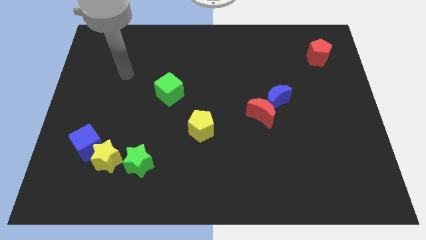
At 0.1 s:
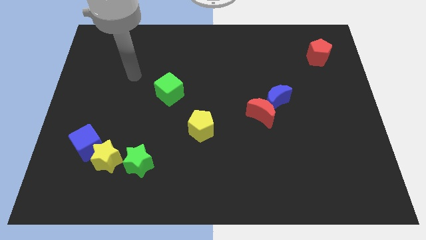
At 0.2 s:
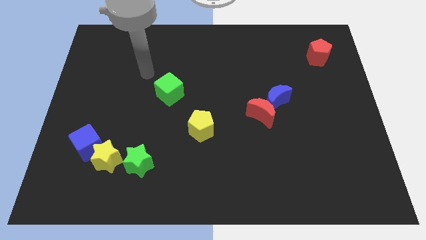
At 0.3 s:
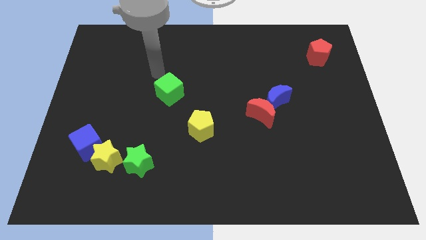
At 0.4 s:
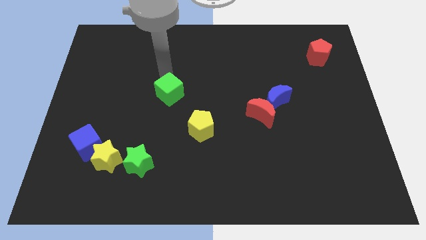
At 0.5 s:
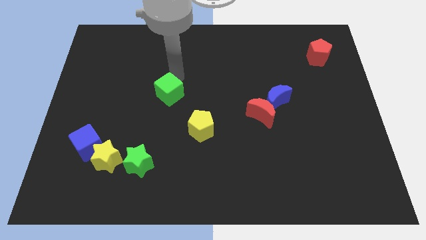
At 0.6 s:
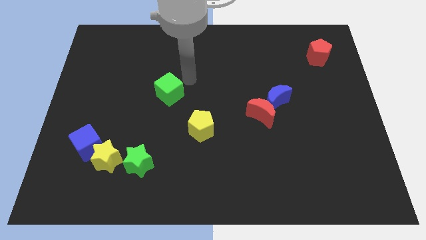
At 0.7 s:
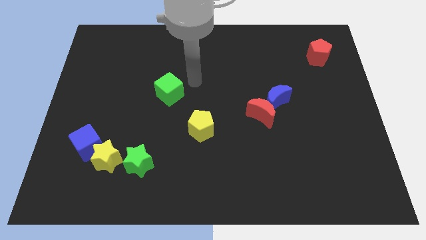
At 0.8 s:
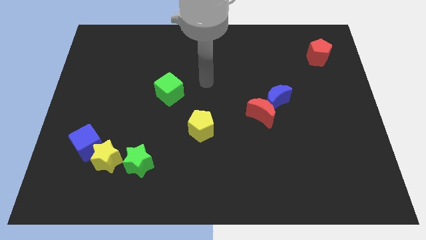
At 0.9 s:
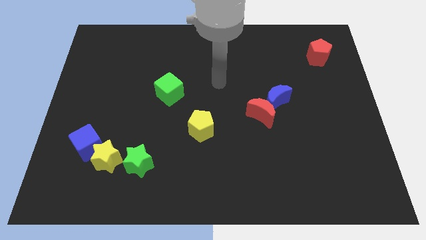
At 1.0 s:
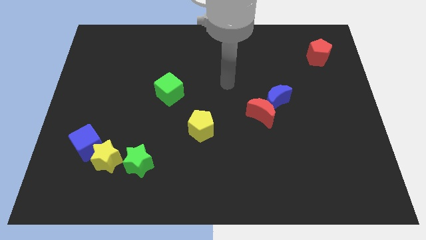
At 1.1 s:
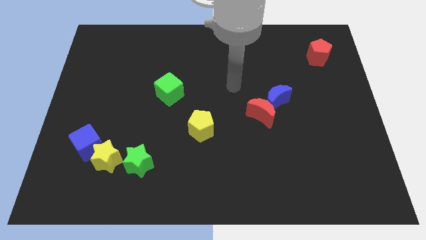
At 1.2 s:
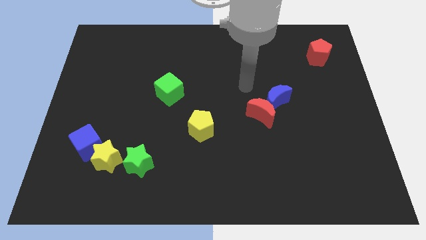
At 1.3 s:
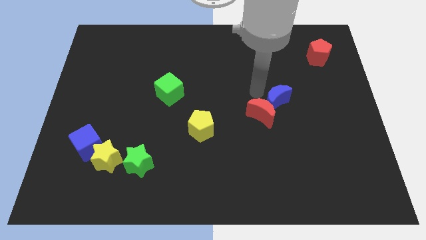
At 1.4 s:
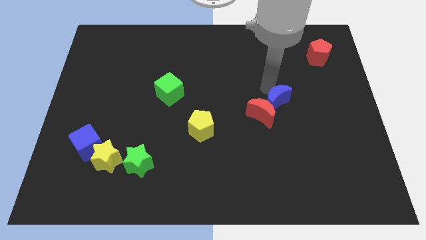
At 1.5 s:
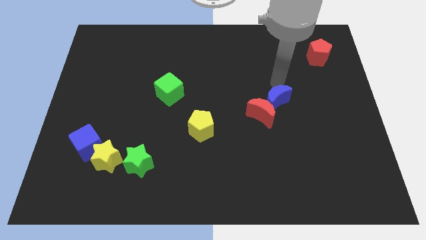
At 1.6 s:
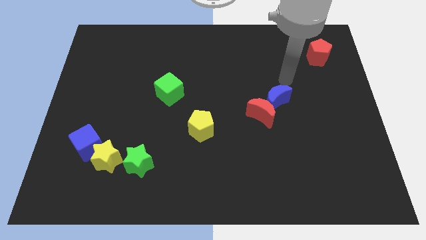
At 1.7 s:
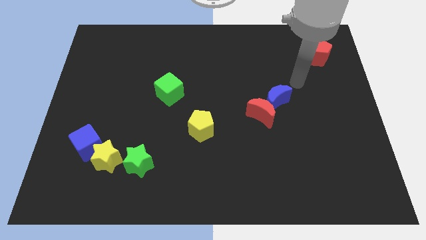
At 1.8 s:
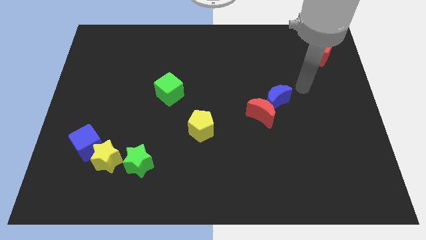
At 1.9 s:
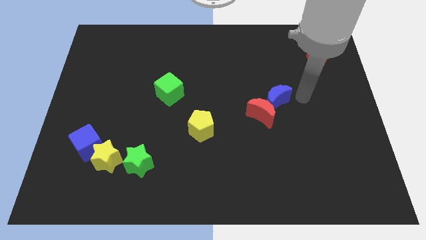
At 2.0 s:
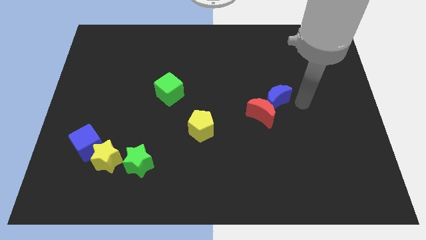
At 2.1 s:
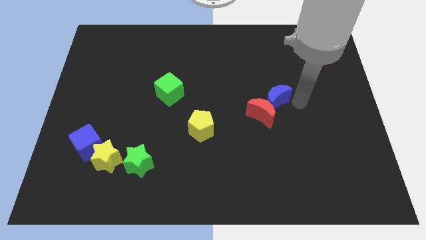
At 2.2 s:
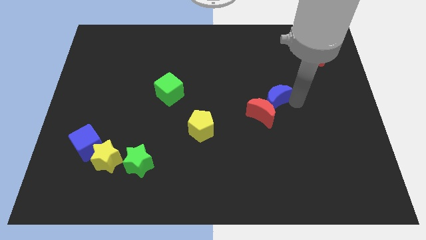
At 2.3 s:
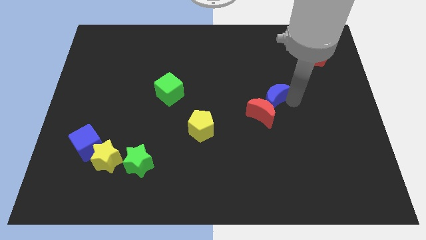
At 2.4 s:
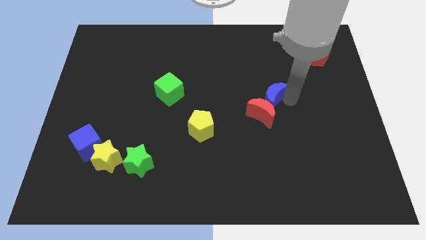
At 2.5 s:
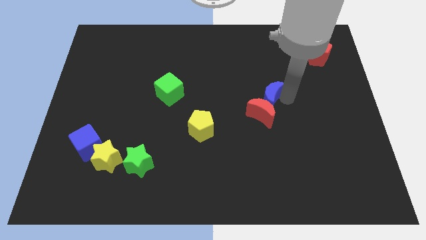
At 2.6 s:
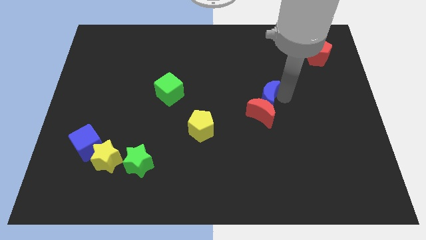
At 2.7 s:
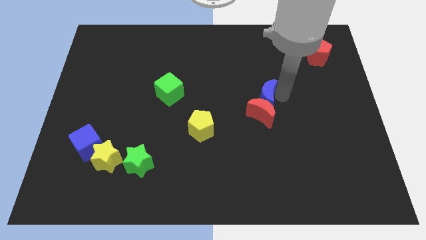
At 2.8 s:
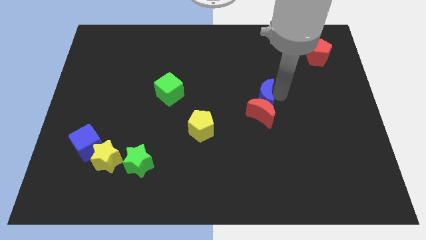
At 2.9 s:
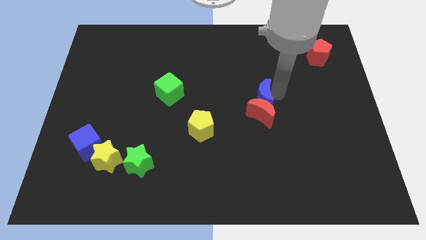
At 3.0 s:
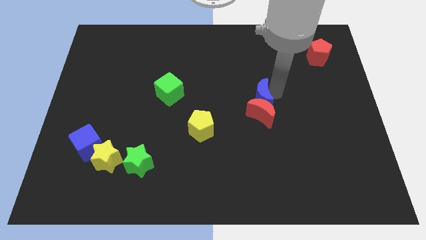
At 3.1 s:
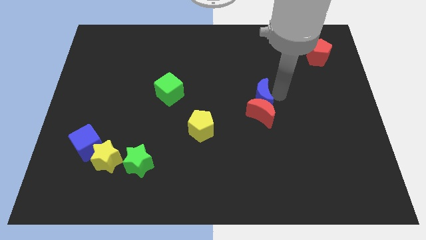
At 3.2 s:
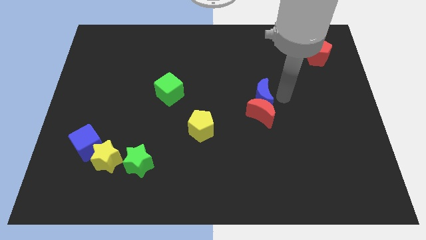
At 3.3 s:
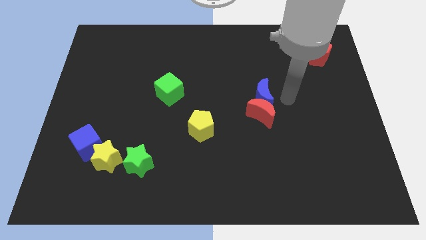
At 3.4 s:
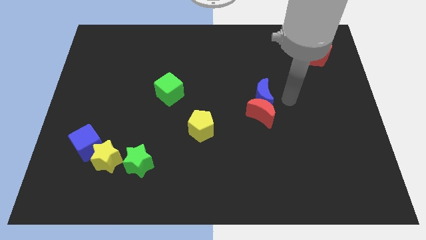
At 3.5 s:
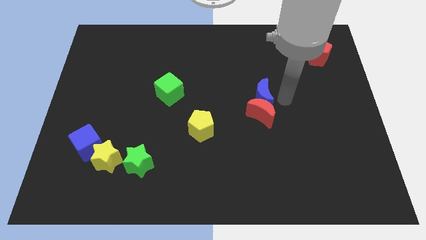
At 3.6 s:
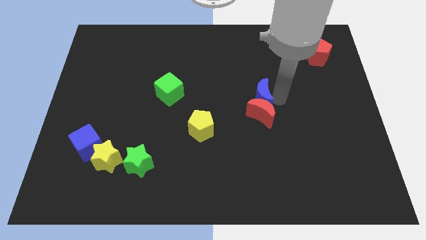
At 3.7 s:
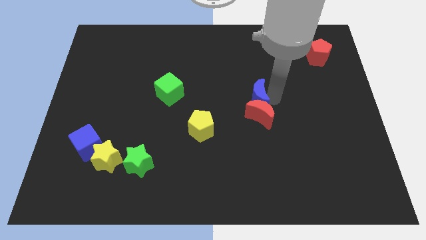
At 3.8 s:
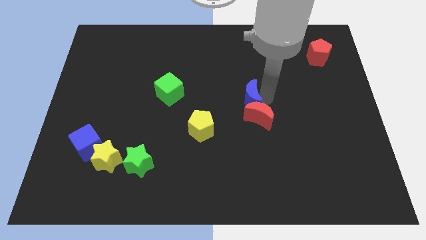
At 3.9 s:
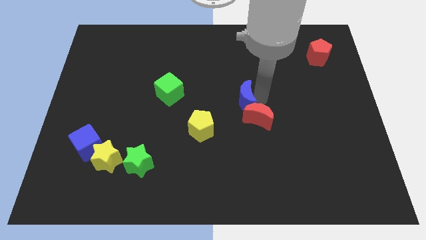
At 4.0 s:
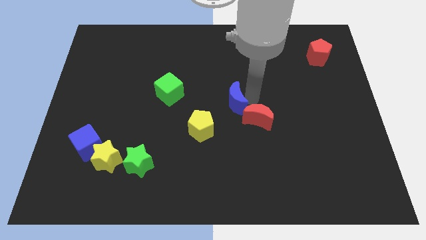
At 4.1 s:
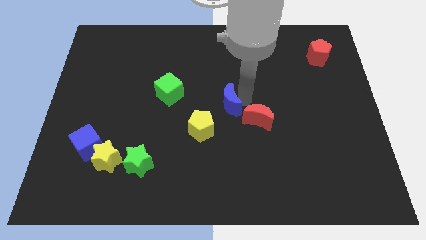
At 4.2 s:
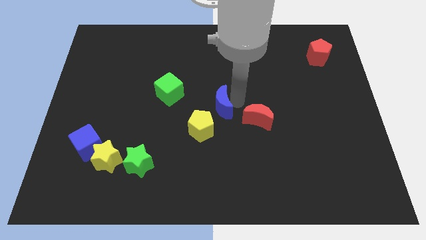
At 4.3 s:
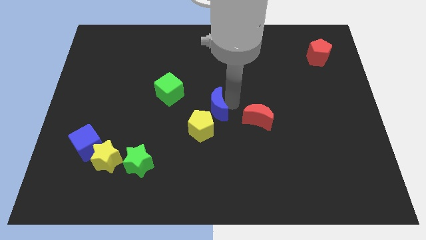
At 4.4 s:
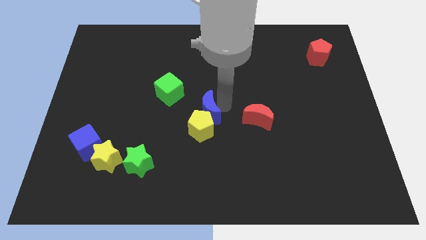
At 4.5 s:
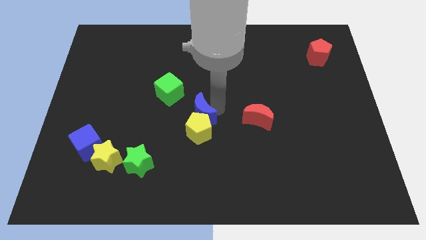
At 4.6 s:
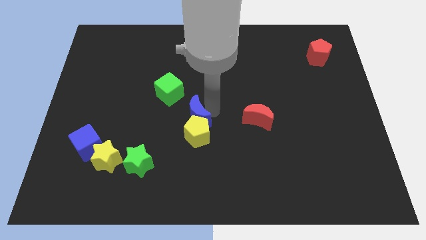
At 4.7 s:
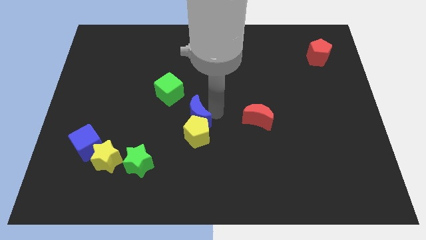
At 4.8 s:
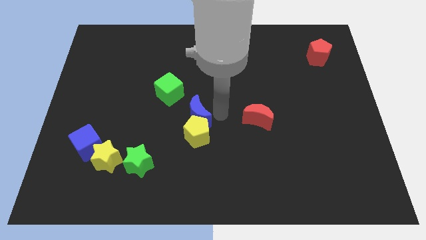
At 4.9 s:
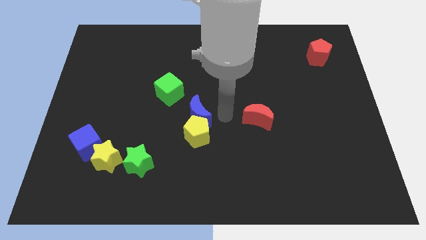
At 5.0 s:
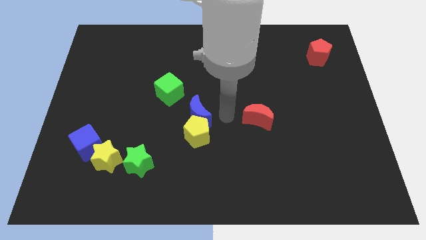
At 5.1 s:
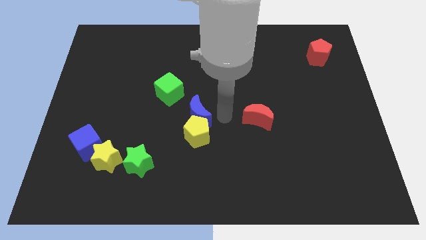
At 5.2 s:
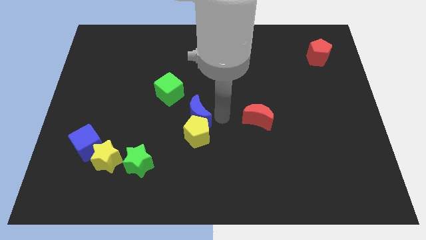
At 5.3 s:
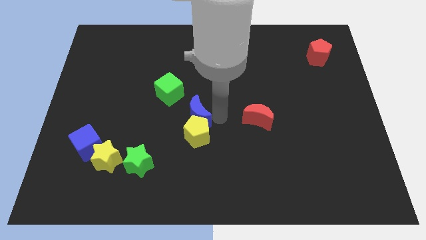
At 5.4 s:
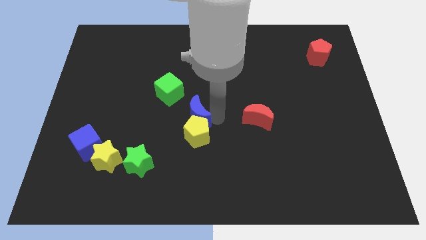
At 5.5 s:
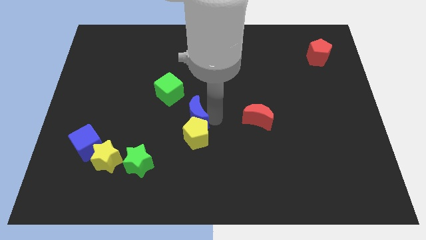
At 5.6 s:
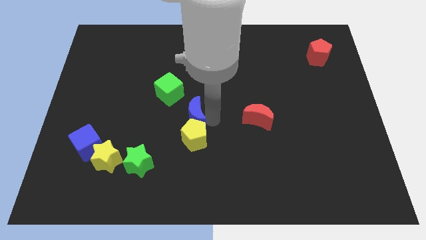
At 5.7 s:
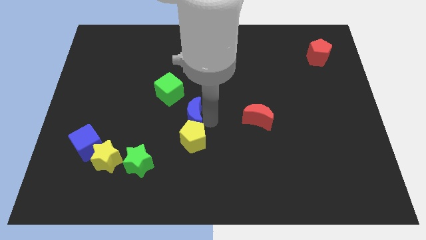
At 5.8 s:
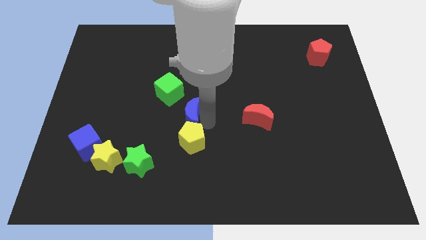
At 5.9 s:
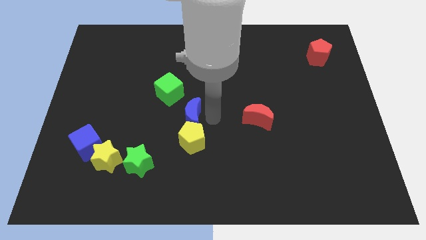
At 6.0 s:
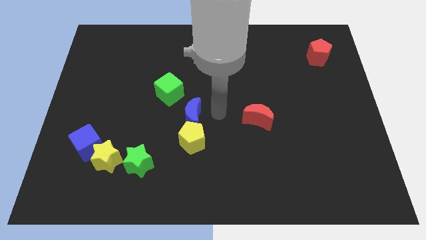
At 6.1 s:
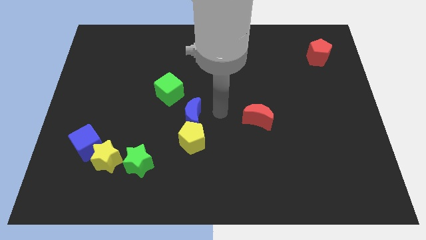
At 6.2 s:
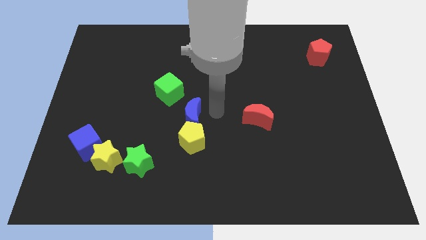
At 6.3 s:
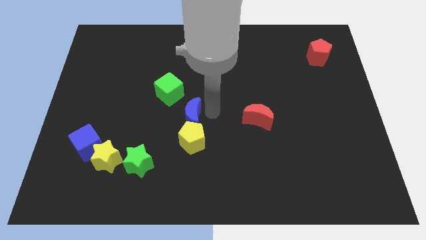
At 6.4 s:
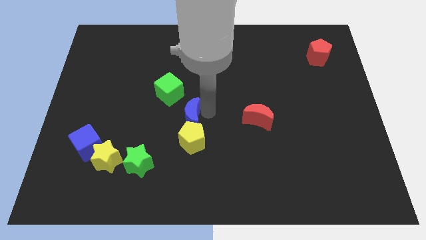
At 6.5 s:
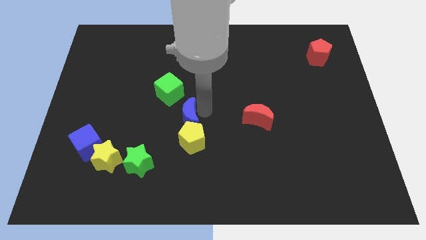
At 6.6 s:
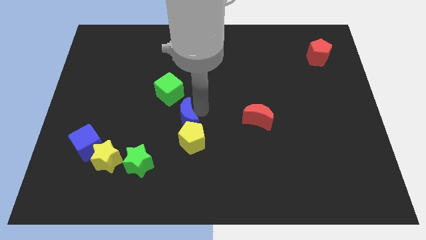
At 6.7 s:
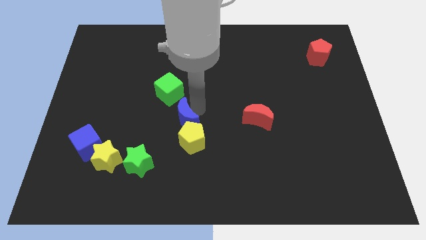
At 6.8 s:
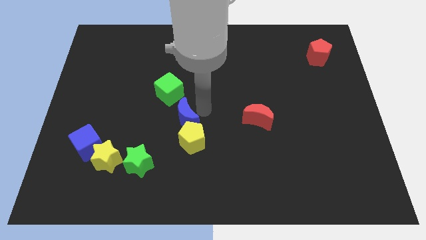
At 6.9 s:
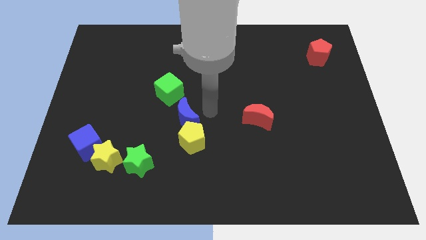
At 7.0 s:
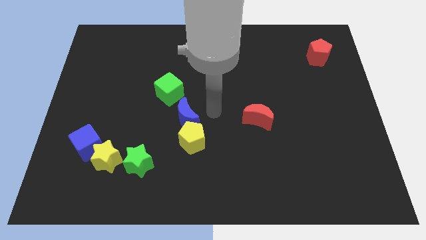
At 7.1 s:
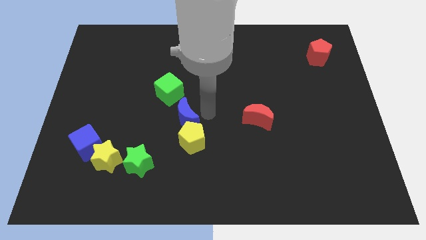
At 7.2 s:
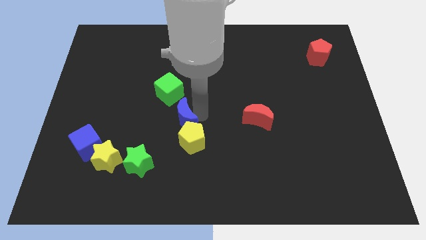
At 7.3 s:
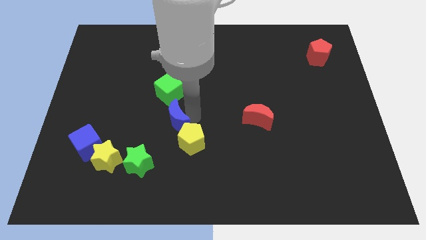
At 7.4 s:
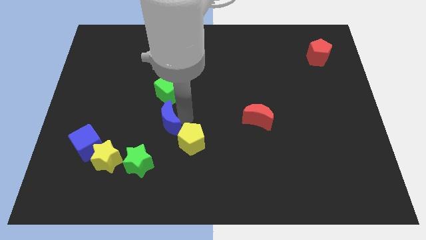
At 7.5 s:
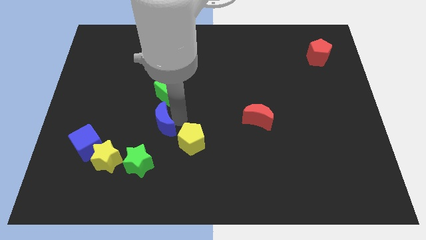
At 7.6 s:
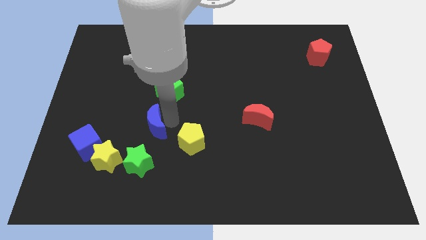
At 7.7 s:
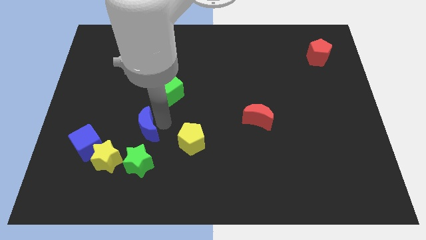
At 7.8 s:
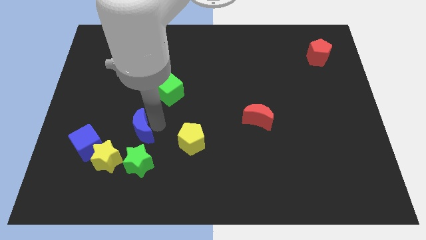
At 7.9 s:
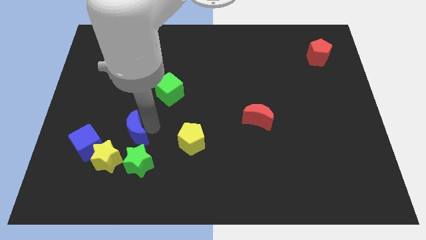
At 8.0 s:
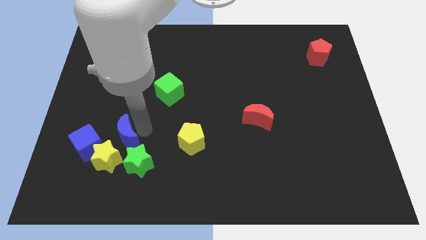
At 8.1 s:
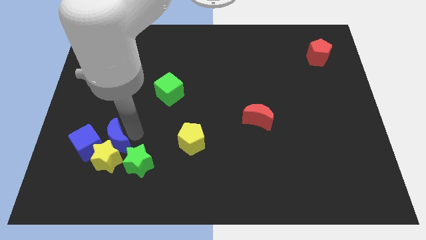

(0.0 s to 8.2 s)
move the blue moon next to the blue cube

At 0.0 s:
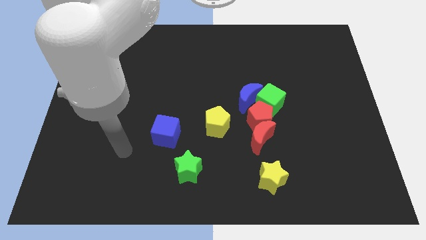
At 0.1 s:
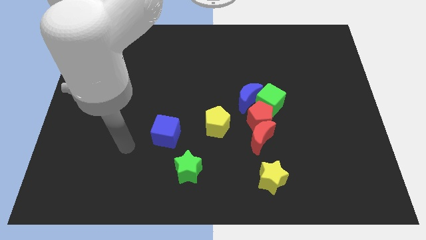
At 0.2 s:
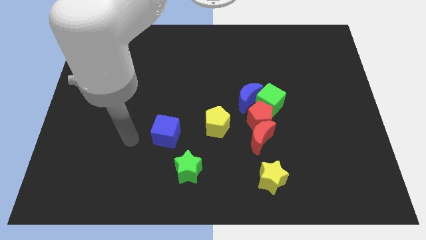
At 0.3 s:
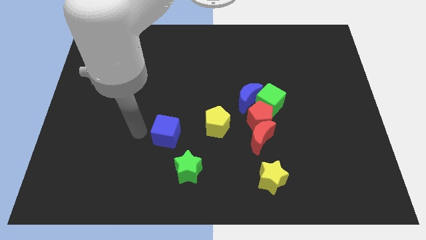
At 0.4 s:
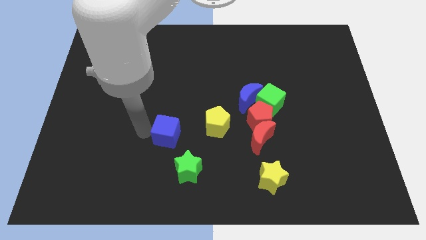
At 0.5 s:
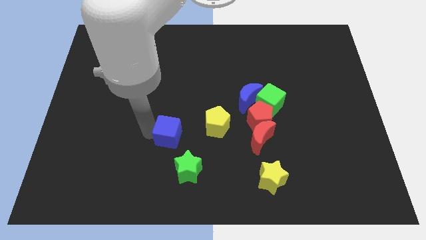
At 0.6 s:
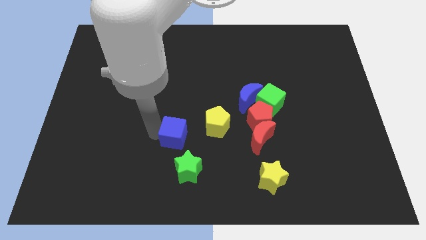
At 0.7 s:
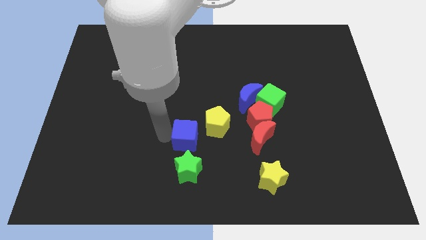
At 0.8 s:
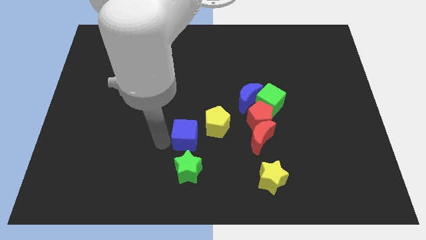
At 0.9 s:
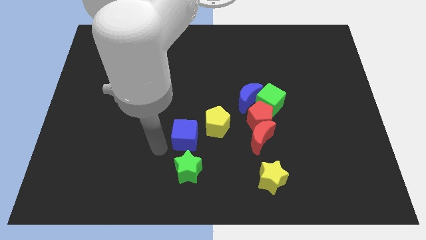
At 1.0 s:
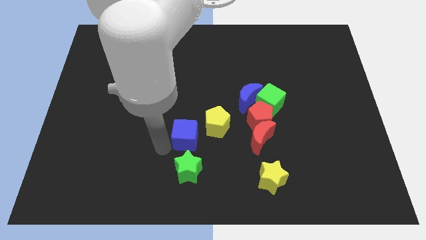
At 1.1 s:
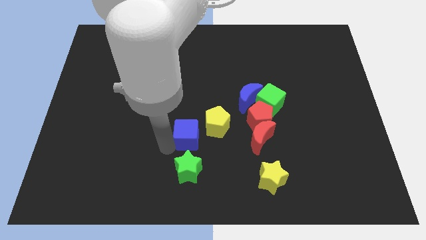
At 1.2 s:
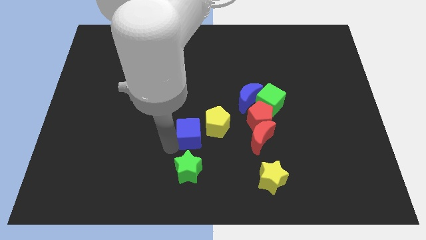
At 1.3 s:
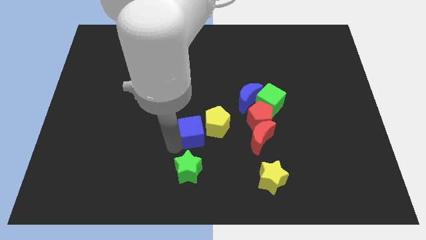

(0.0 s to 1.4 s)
slide the blue cube close to the yellow pentagon
